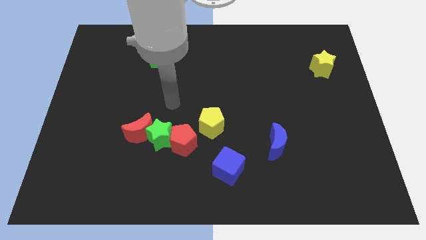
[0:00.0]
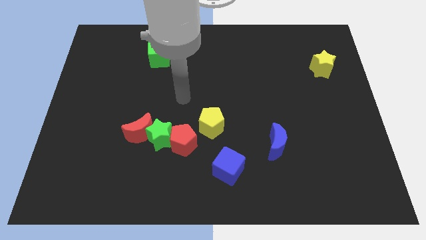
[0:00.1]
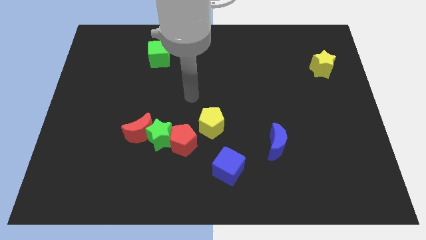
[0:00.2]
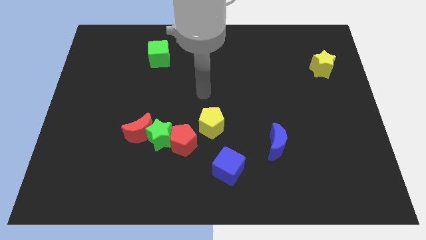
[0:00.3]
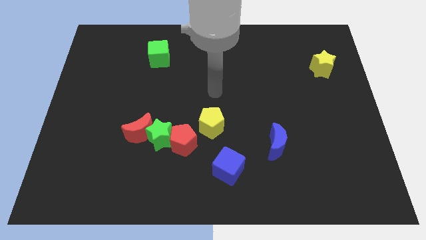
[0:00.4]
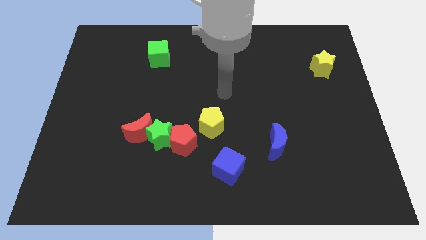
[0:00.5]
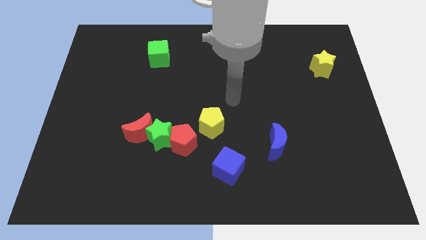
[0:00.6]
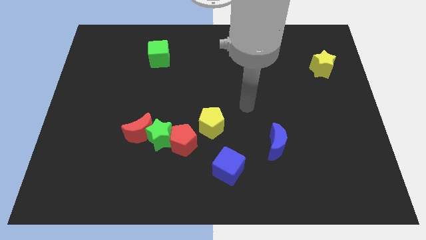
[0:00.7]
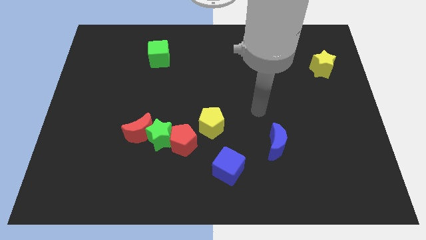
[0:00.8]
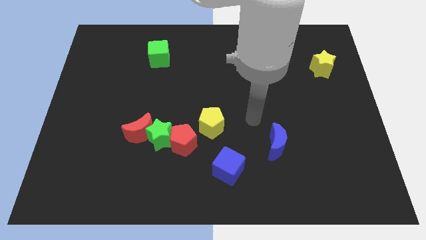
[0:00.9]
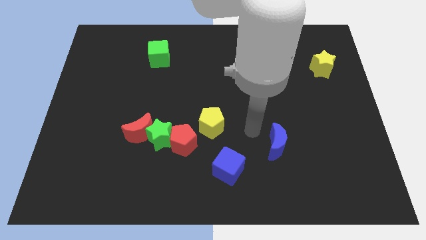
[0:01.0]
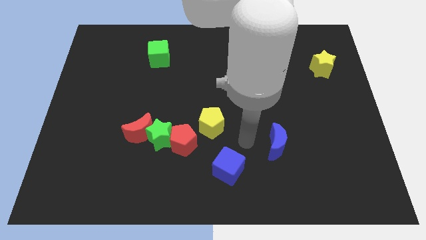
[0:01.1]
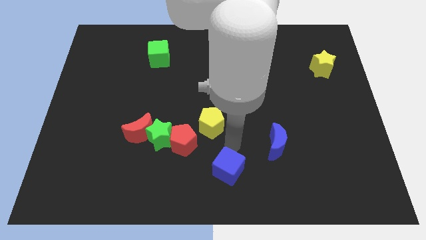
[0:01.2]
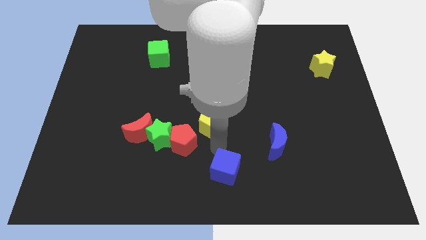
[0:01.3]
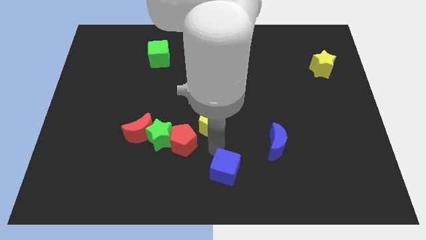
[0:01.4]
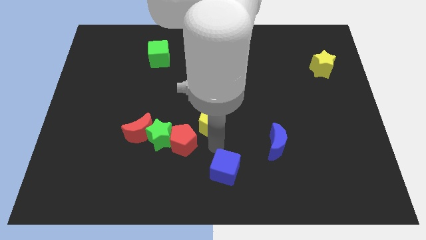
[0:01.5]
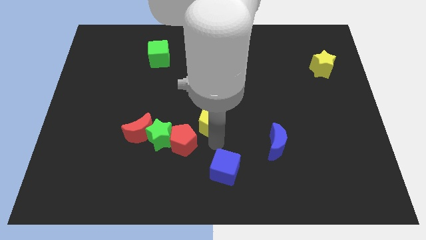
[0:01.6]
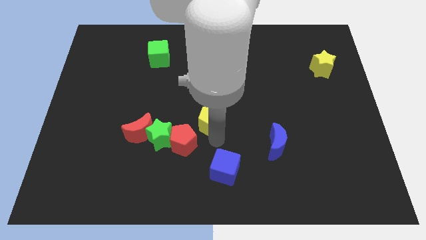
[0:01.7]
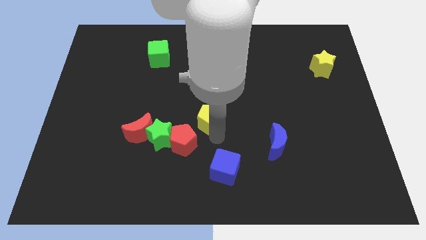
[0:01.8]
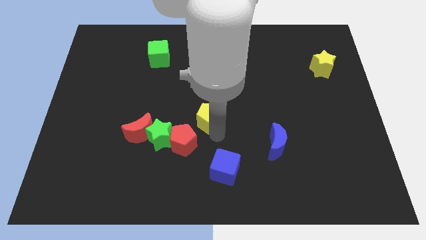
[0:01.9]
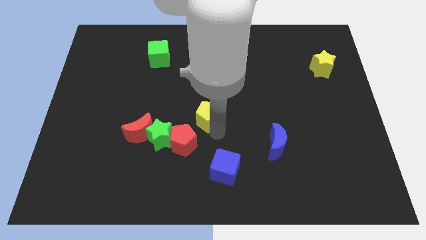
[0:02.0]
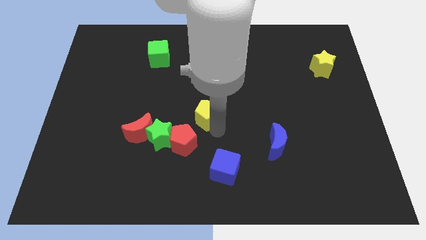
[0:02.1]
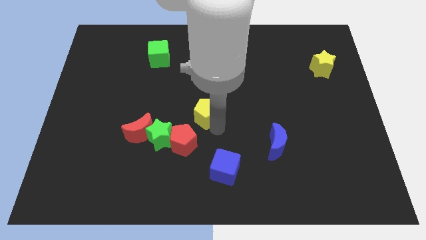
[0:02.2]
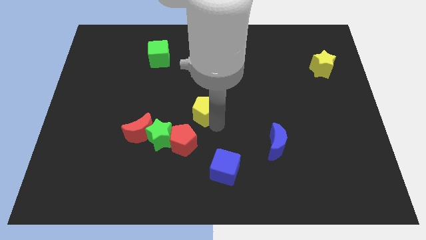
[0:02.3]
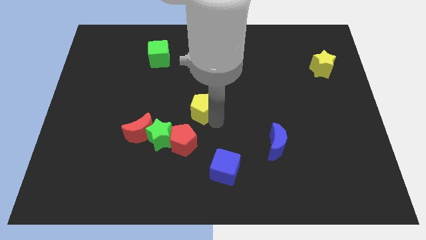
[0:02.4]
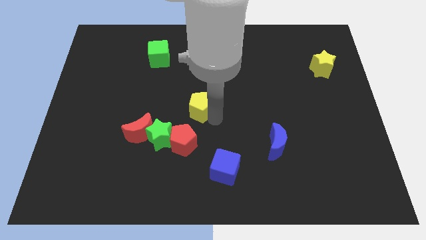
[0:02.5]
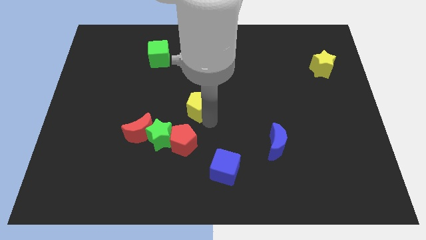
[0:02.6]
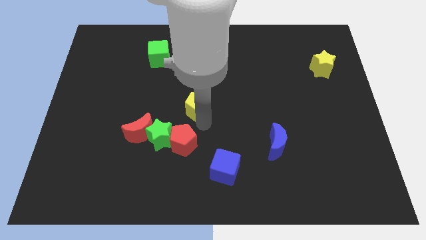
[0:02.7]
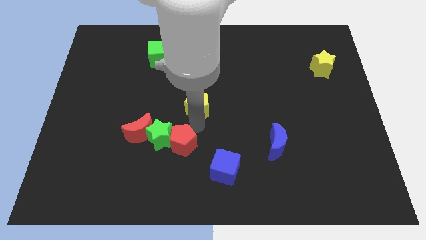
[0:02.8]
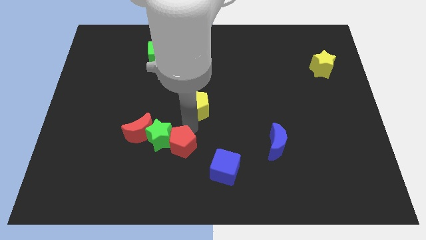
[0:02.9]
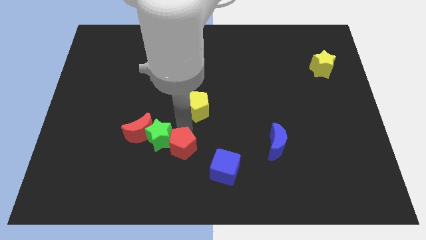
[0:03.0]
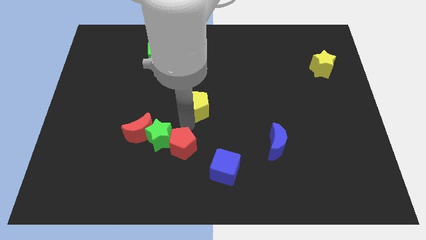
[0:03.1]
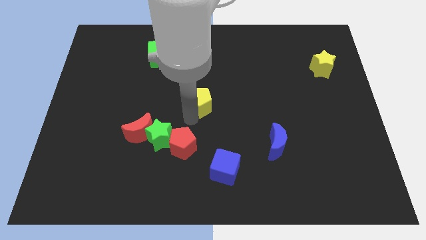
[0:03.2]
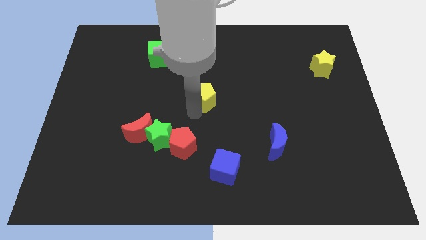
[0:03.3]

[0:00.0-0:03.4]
move the yellow pentagon slightly upwards

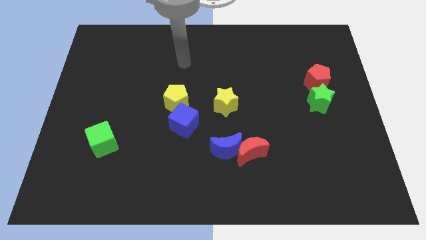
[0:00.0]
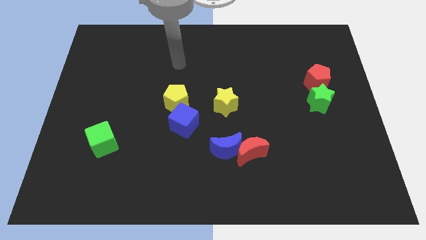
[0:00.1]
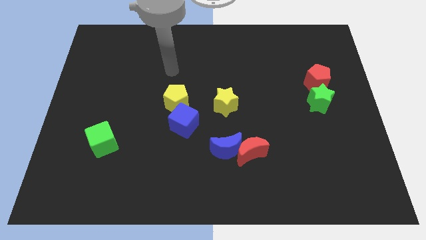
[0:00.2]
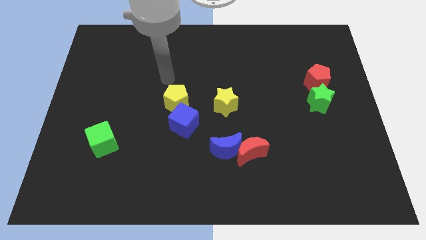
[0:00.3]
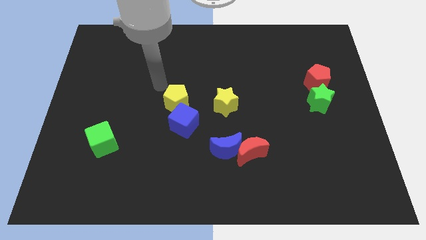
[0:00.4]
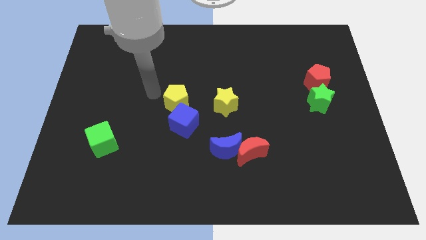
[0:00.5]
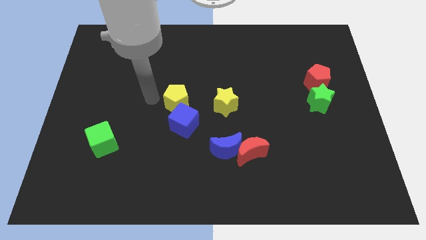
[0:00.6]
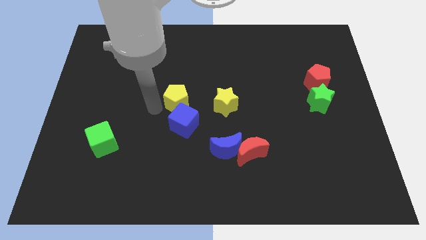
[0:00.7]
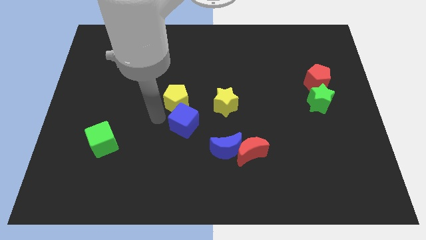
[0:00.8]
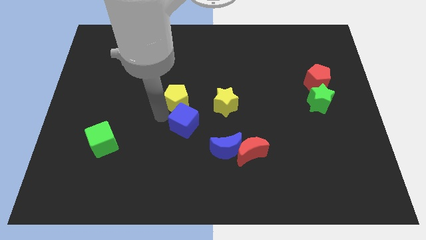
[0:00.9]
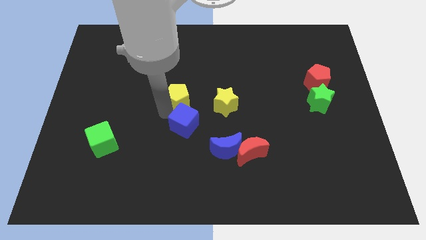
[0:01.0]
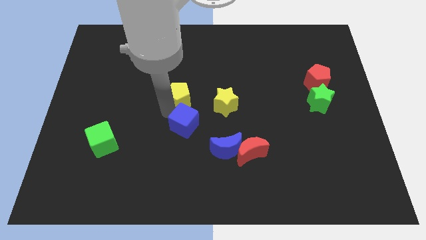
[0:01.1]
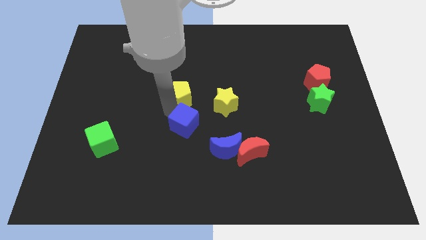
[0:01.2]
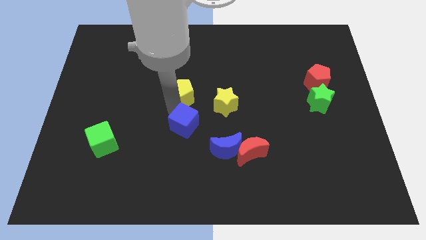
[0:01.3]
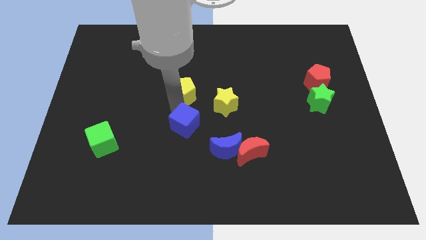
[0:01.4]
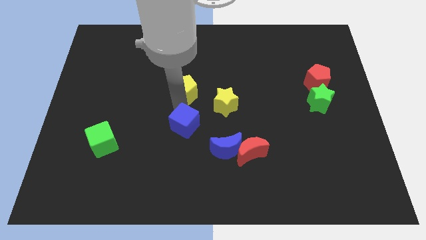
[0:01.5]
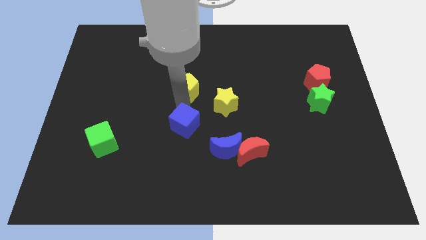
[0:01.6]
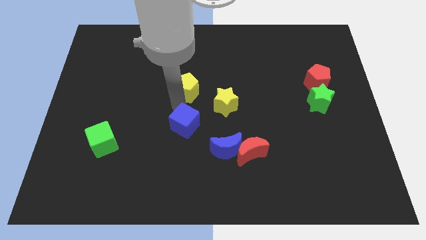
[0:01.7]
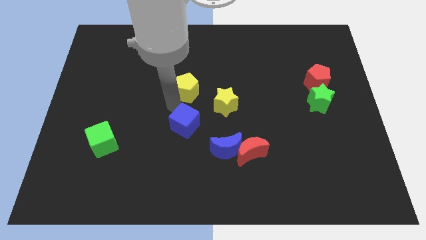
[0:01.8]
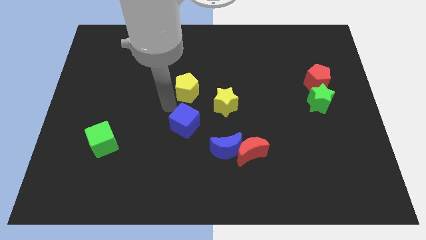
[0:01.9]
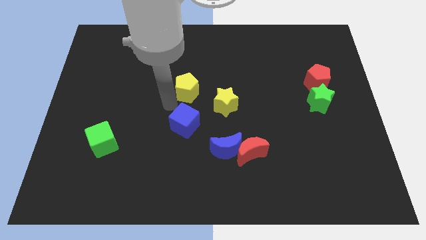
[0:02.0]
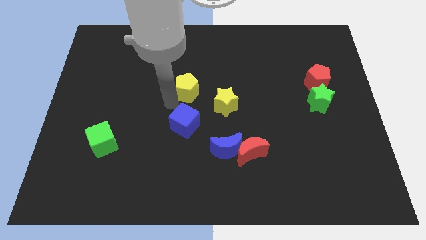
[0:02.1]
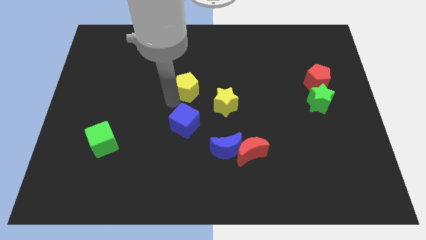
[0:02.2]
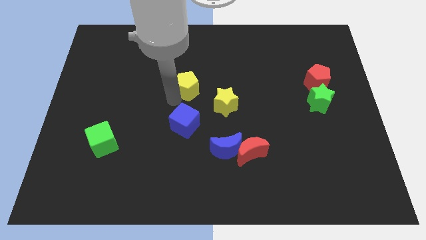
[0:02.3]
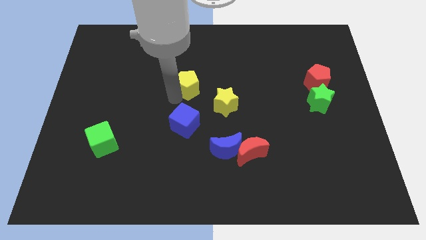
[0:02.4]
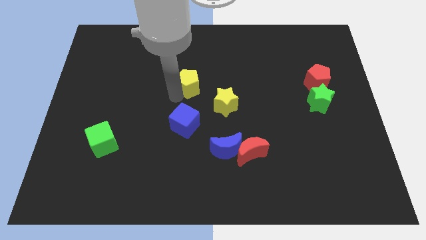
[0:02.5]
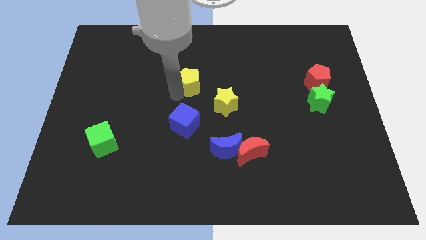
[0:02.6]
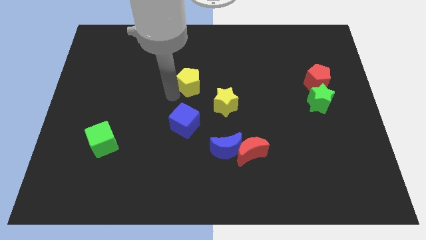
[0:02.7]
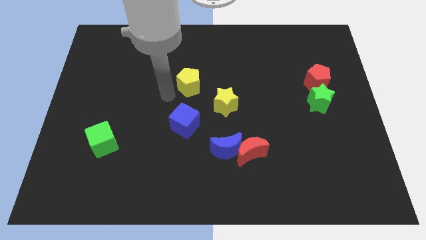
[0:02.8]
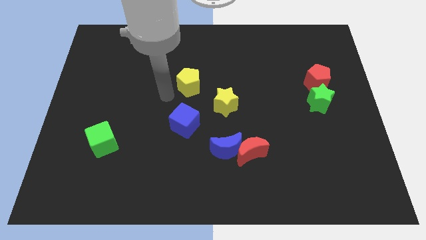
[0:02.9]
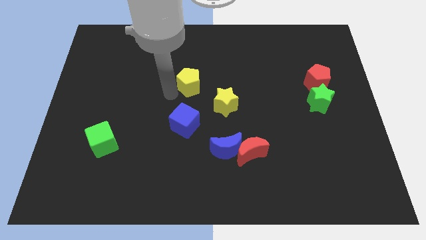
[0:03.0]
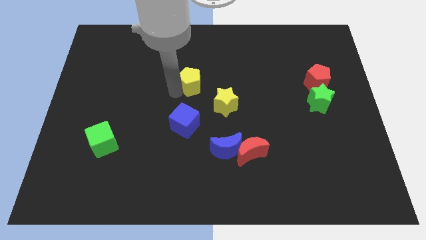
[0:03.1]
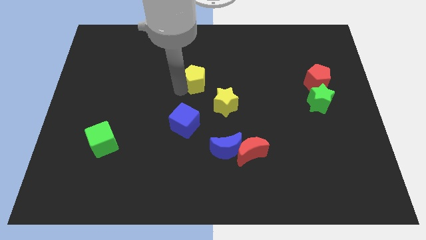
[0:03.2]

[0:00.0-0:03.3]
slide the yellow pentagon up and then to the right a little

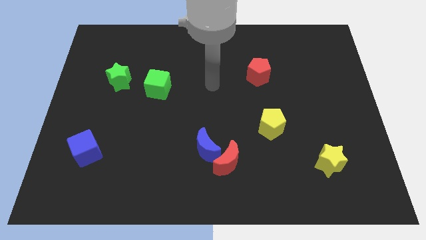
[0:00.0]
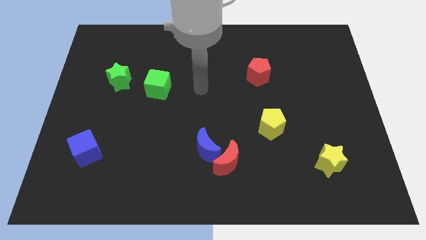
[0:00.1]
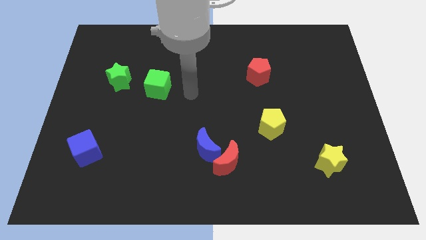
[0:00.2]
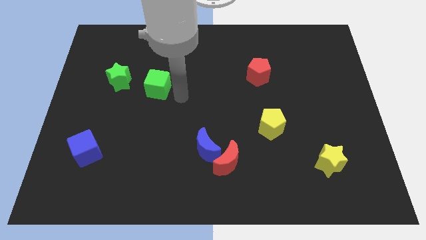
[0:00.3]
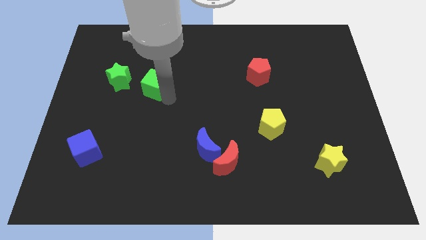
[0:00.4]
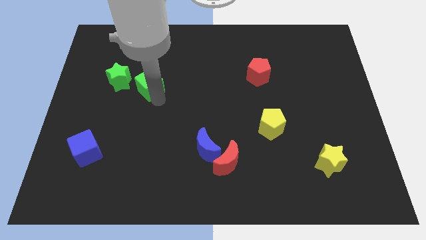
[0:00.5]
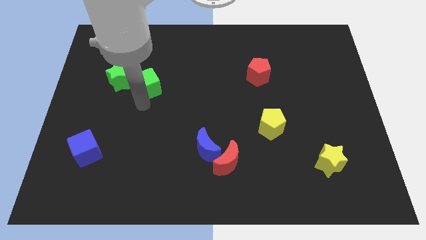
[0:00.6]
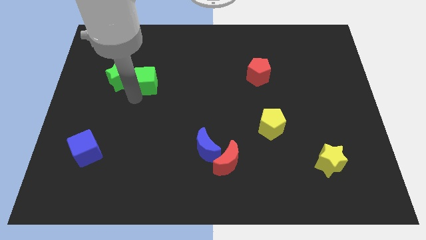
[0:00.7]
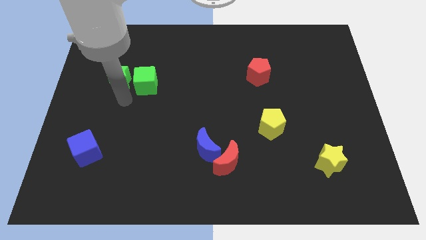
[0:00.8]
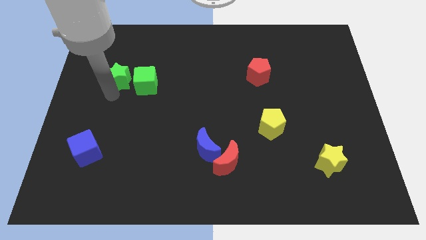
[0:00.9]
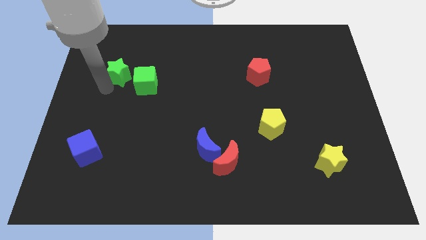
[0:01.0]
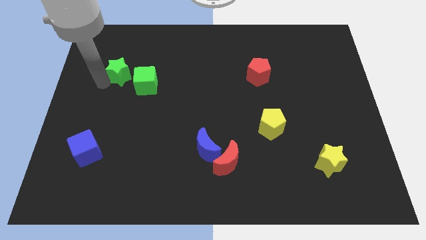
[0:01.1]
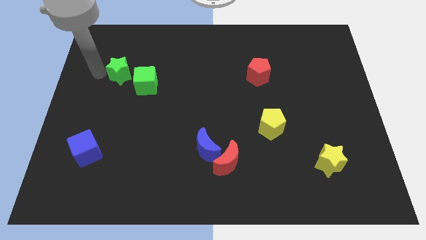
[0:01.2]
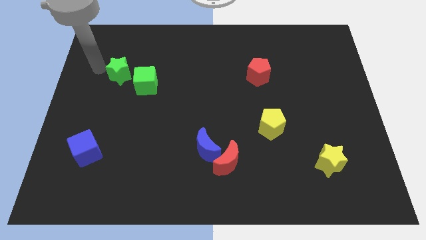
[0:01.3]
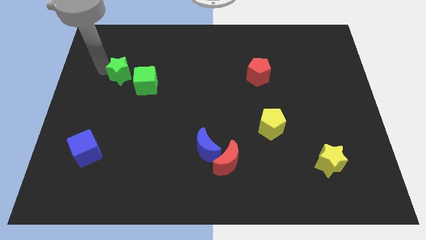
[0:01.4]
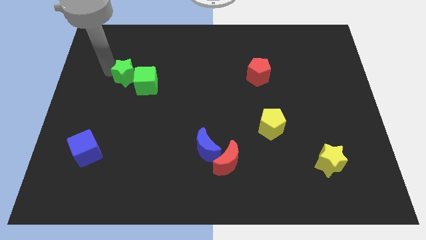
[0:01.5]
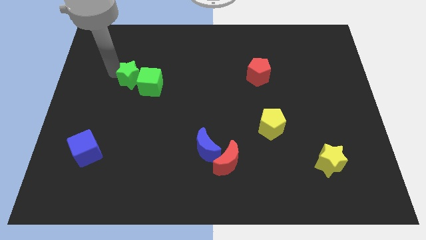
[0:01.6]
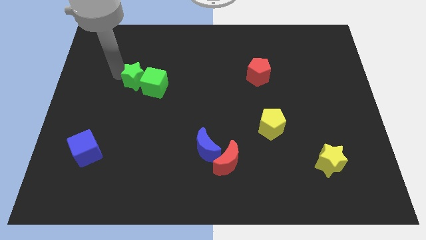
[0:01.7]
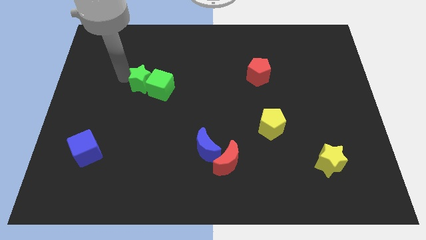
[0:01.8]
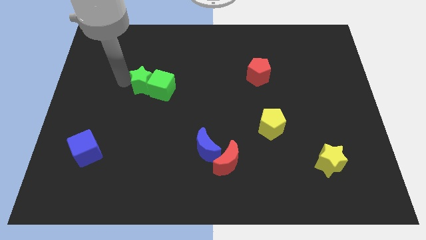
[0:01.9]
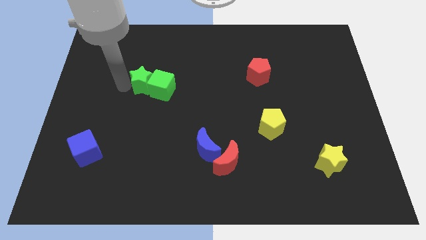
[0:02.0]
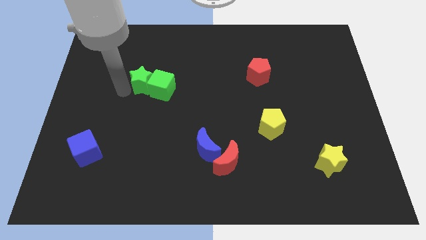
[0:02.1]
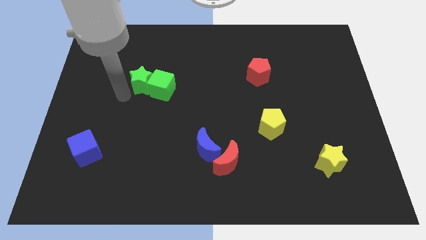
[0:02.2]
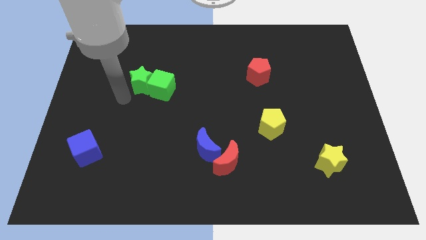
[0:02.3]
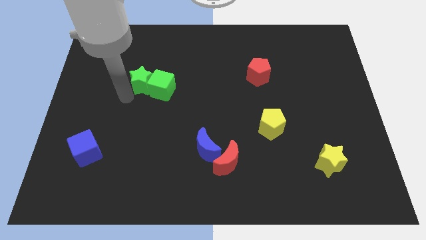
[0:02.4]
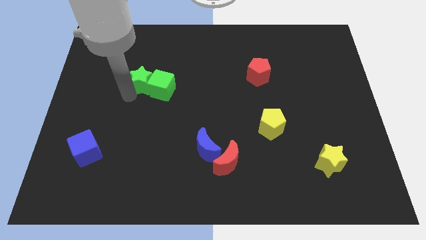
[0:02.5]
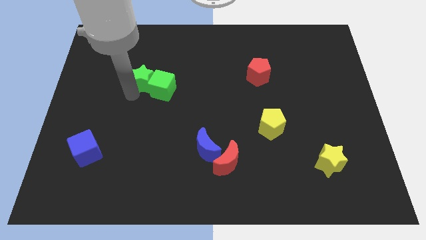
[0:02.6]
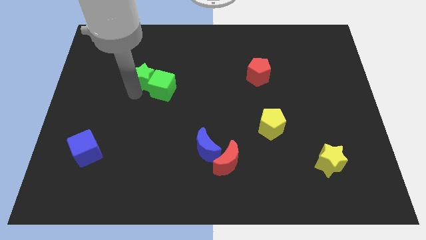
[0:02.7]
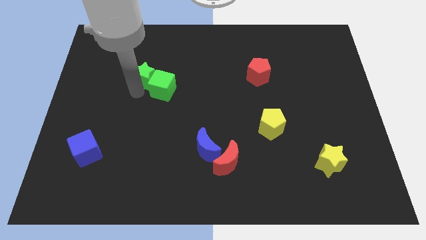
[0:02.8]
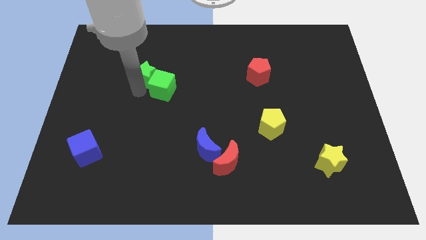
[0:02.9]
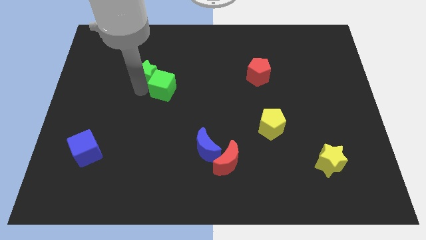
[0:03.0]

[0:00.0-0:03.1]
slightly slide the green star right
